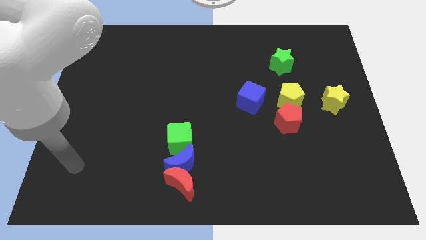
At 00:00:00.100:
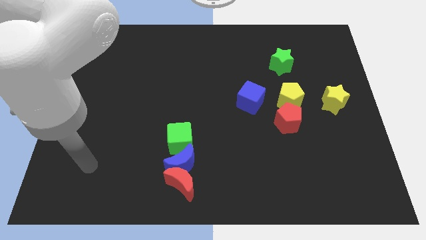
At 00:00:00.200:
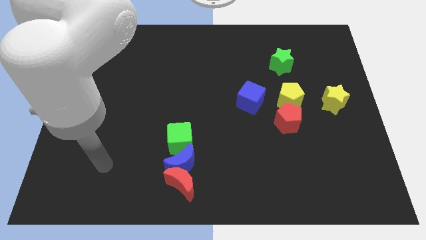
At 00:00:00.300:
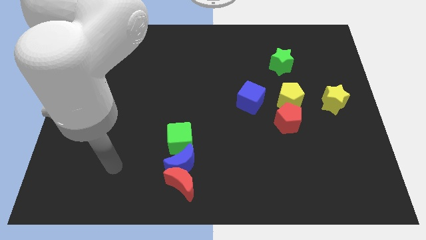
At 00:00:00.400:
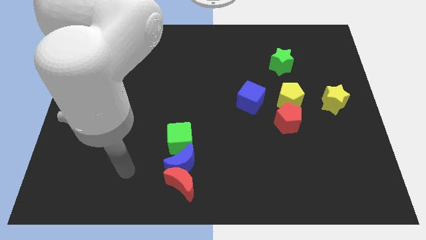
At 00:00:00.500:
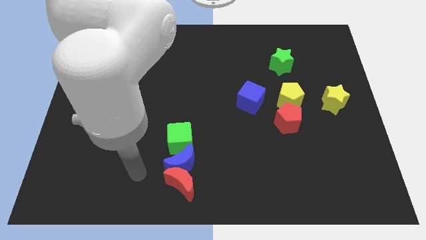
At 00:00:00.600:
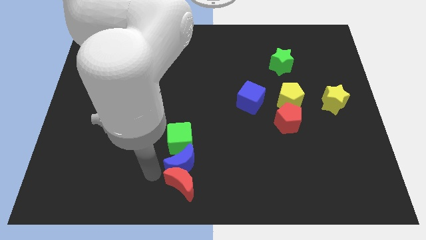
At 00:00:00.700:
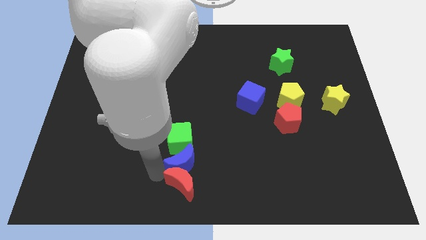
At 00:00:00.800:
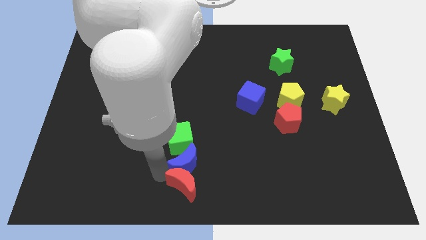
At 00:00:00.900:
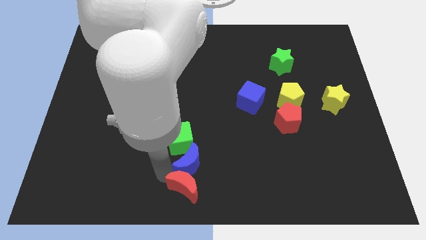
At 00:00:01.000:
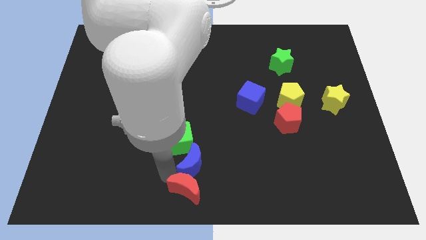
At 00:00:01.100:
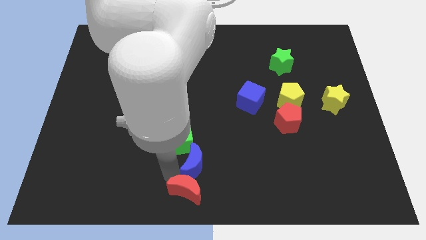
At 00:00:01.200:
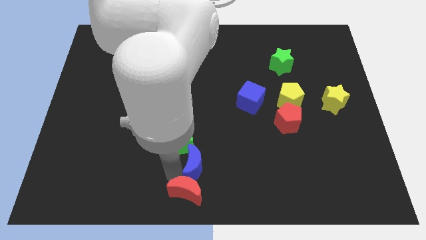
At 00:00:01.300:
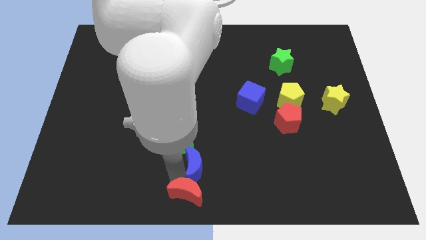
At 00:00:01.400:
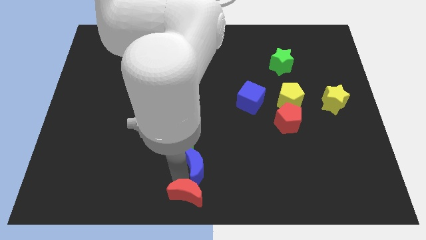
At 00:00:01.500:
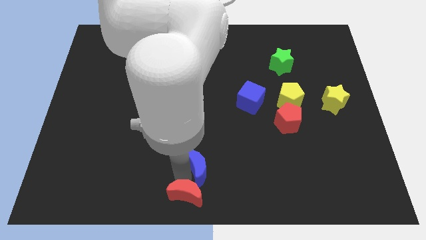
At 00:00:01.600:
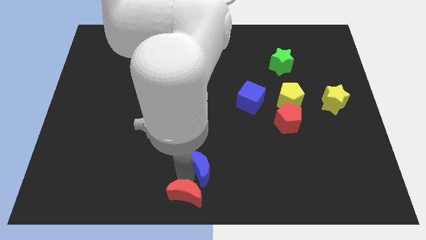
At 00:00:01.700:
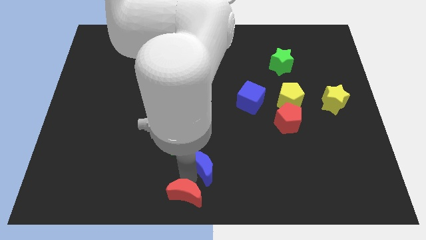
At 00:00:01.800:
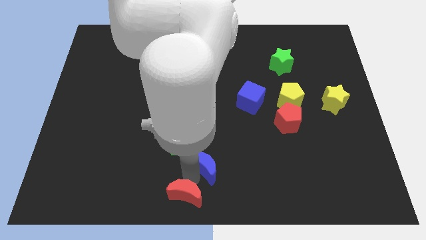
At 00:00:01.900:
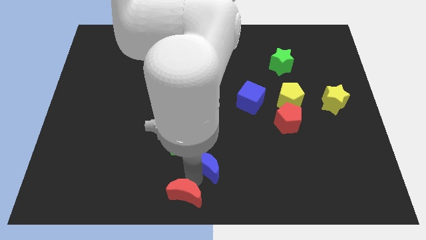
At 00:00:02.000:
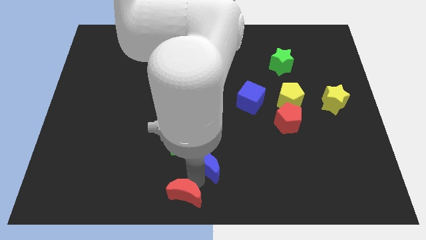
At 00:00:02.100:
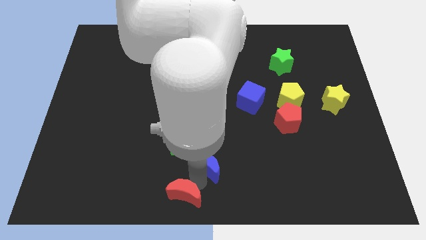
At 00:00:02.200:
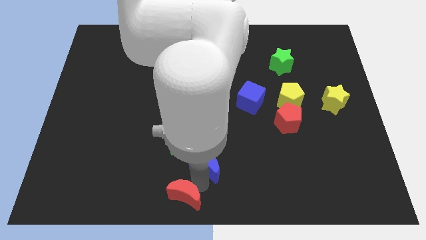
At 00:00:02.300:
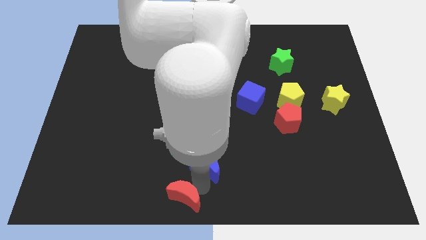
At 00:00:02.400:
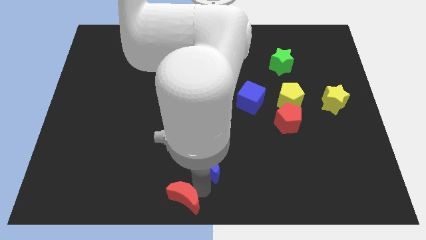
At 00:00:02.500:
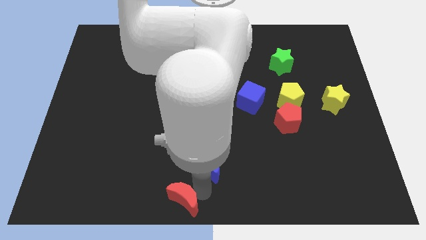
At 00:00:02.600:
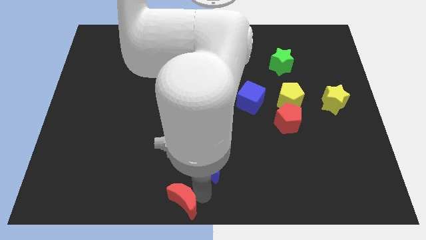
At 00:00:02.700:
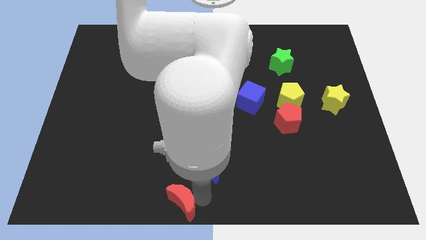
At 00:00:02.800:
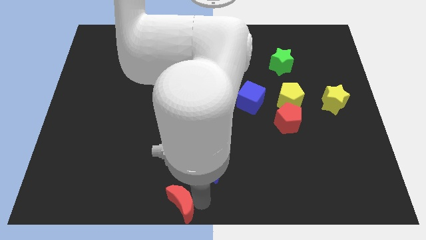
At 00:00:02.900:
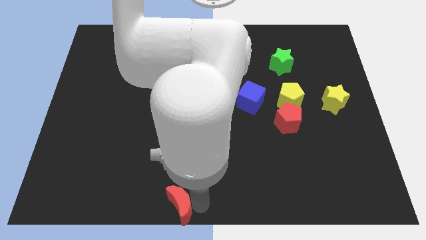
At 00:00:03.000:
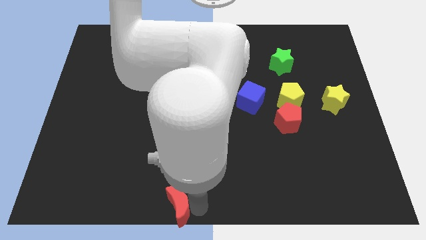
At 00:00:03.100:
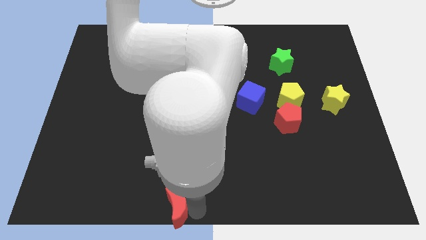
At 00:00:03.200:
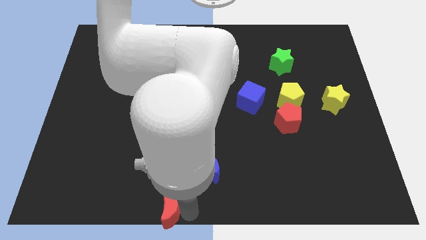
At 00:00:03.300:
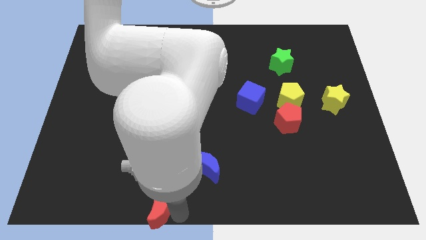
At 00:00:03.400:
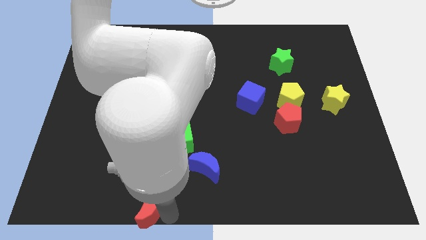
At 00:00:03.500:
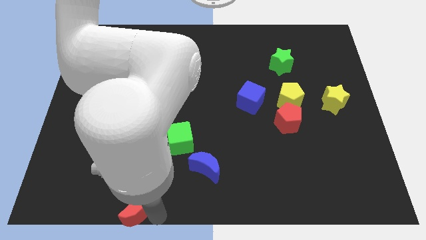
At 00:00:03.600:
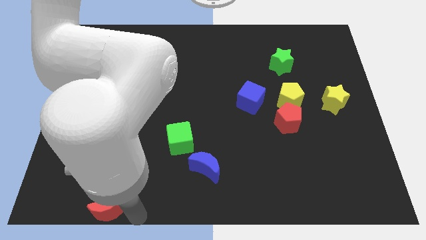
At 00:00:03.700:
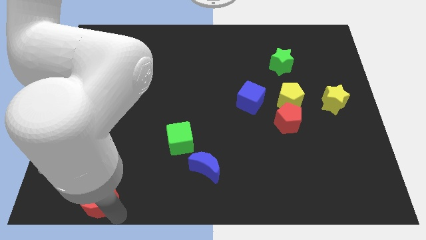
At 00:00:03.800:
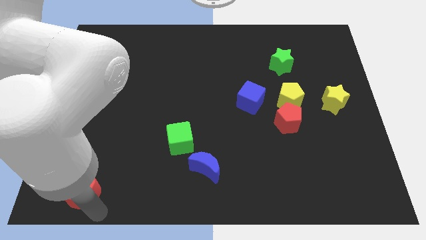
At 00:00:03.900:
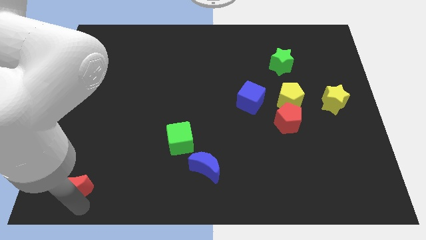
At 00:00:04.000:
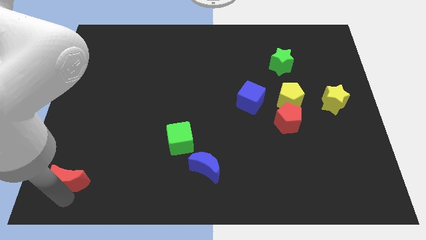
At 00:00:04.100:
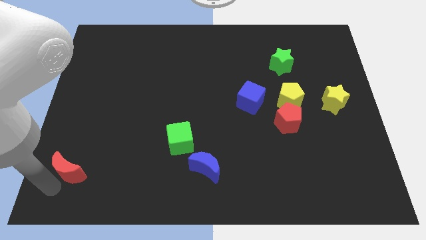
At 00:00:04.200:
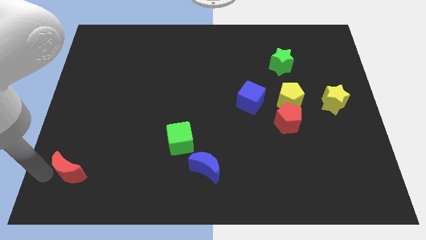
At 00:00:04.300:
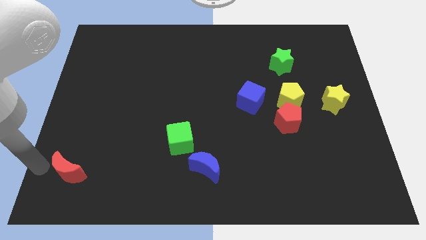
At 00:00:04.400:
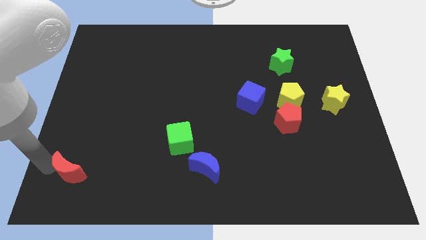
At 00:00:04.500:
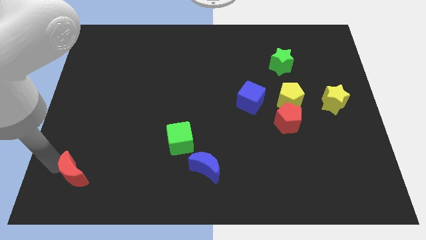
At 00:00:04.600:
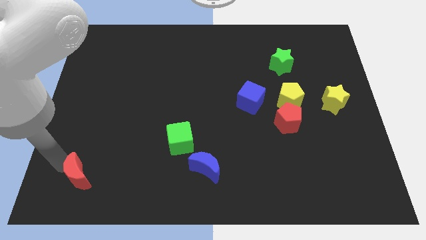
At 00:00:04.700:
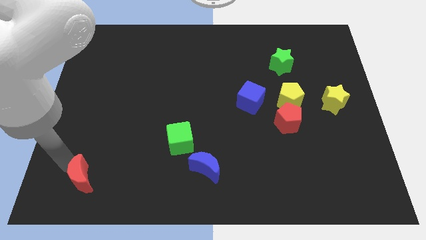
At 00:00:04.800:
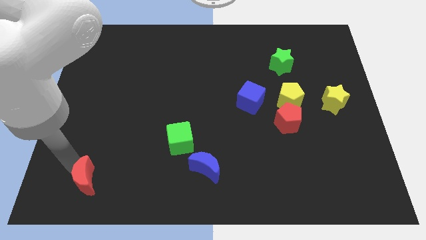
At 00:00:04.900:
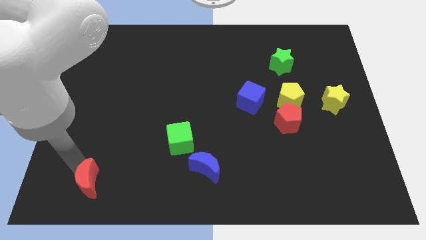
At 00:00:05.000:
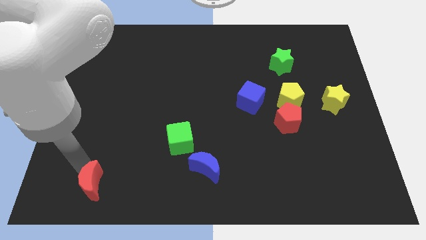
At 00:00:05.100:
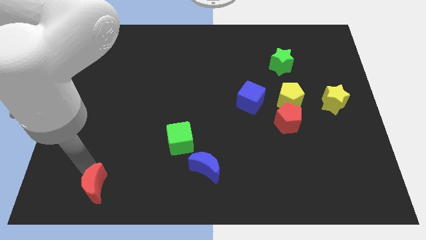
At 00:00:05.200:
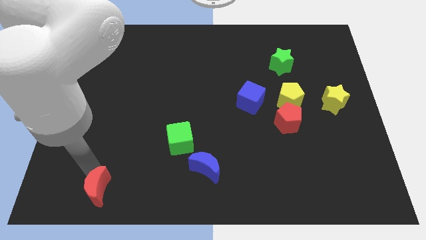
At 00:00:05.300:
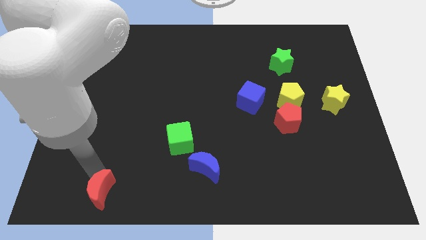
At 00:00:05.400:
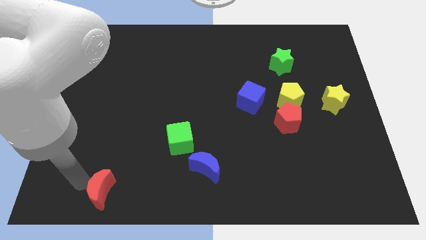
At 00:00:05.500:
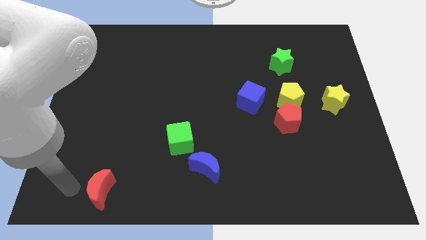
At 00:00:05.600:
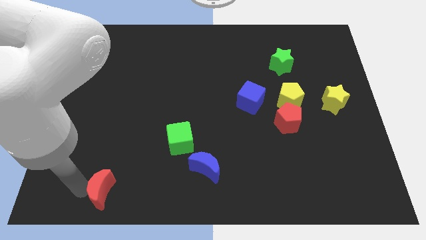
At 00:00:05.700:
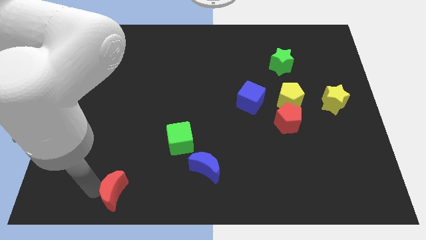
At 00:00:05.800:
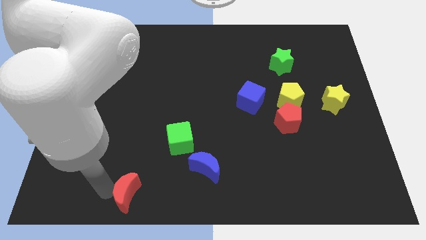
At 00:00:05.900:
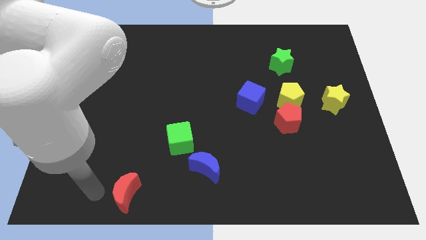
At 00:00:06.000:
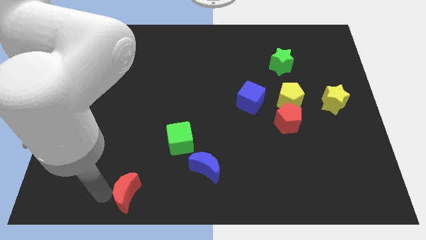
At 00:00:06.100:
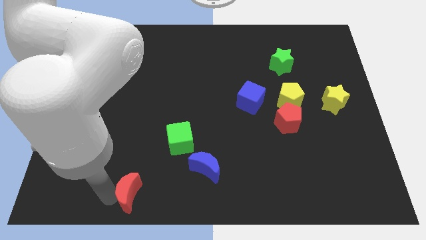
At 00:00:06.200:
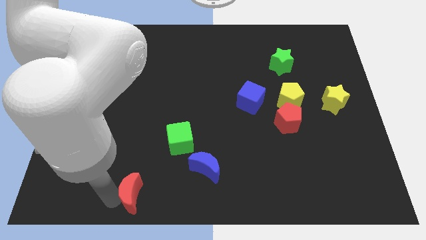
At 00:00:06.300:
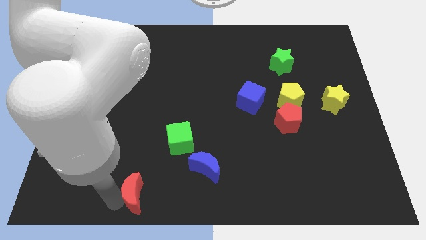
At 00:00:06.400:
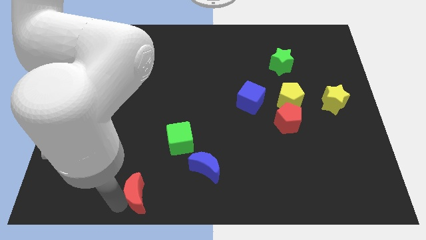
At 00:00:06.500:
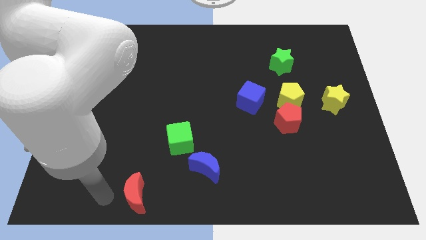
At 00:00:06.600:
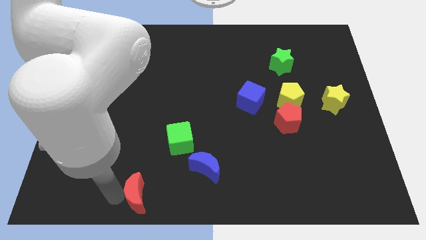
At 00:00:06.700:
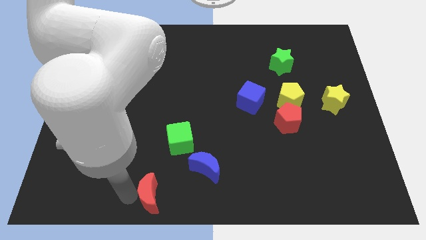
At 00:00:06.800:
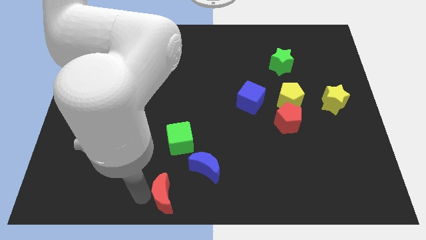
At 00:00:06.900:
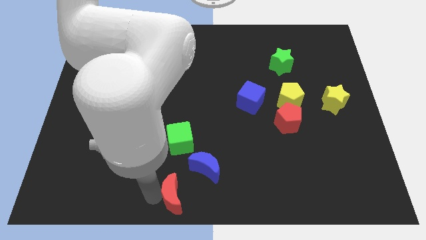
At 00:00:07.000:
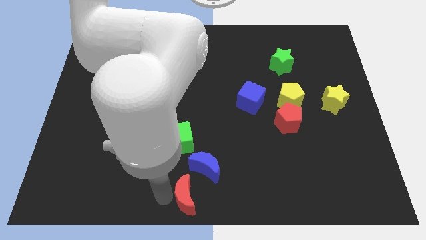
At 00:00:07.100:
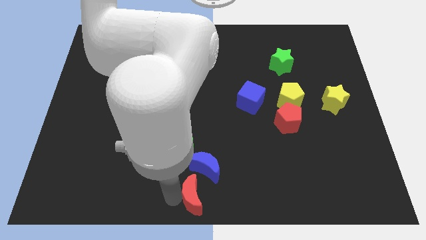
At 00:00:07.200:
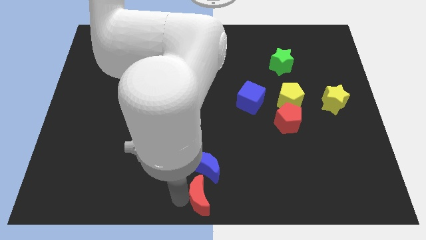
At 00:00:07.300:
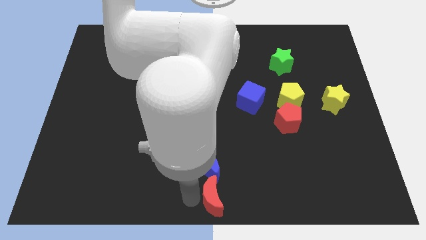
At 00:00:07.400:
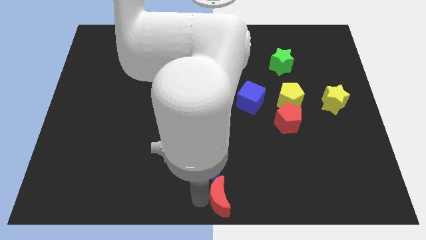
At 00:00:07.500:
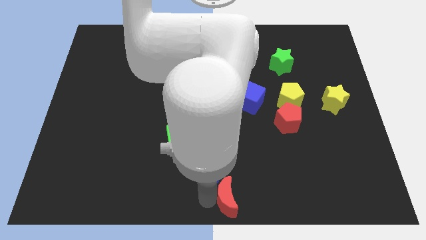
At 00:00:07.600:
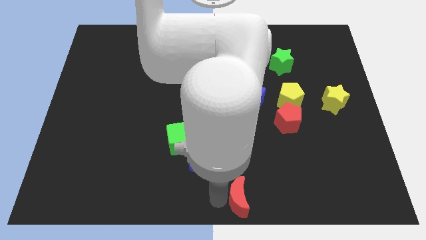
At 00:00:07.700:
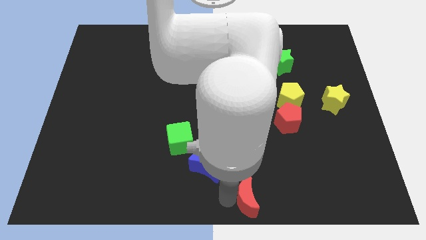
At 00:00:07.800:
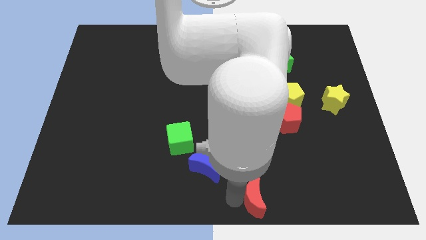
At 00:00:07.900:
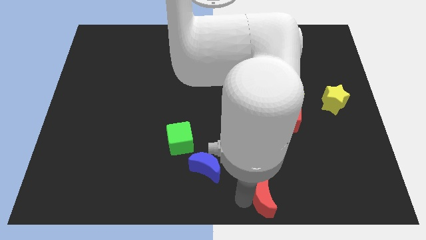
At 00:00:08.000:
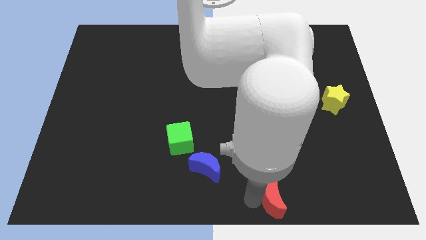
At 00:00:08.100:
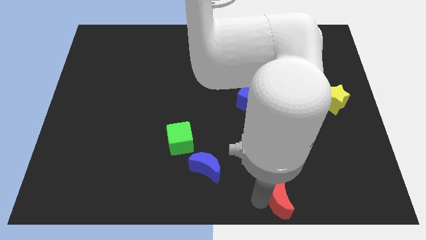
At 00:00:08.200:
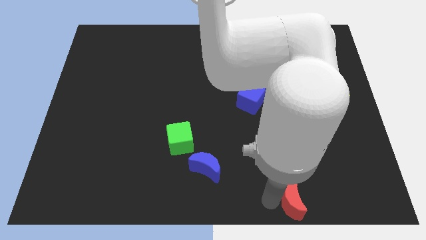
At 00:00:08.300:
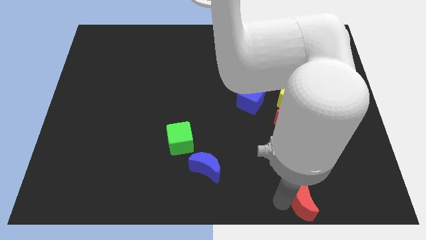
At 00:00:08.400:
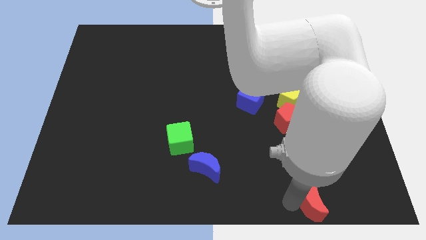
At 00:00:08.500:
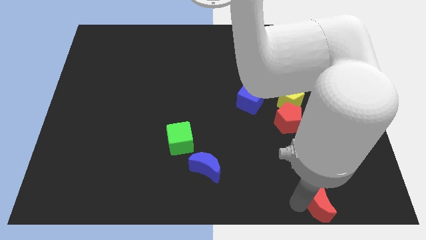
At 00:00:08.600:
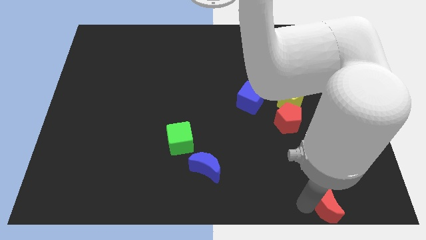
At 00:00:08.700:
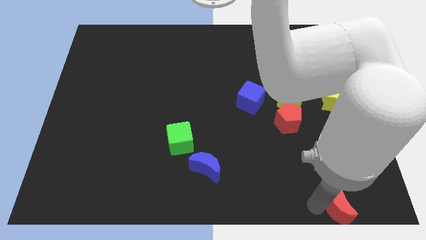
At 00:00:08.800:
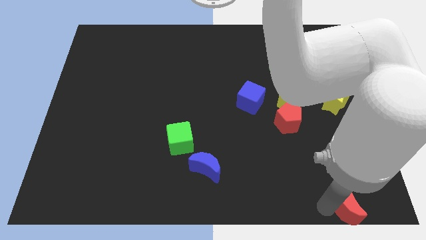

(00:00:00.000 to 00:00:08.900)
move the red moon to the bottom right corner
